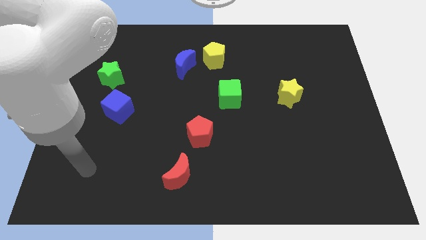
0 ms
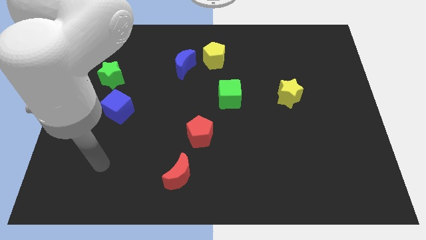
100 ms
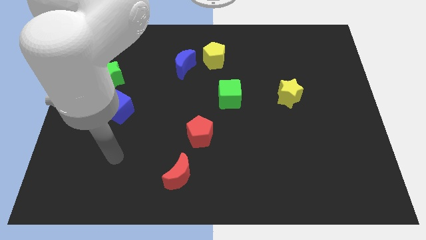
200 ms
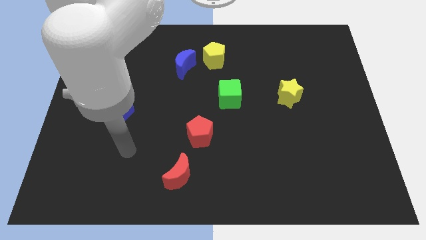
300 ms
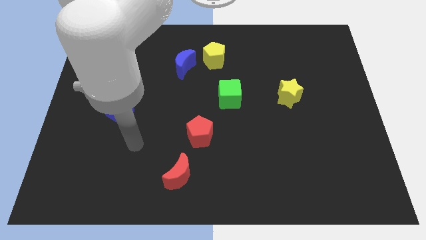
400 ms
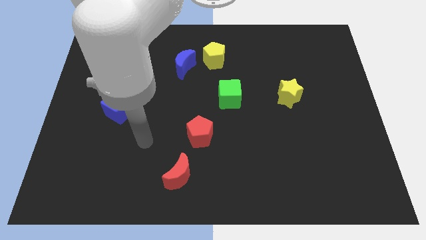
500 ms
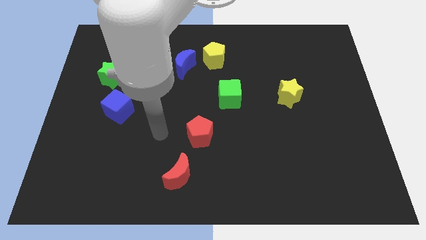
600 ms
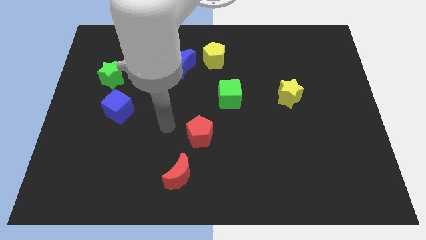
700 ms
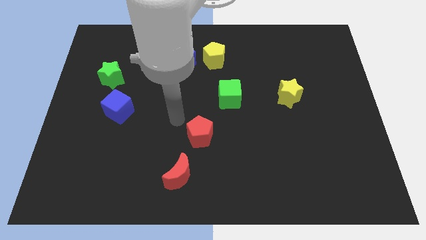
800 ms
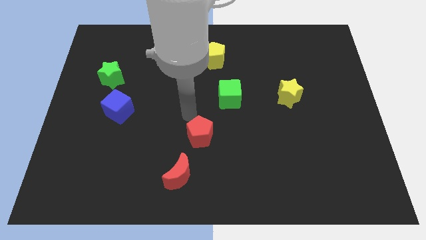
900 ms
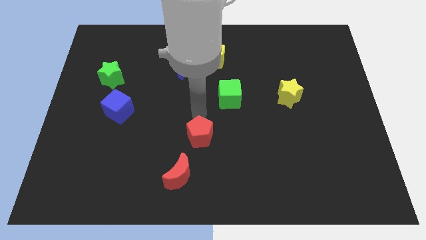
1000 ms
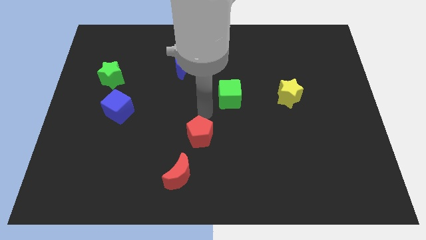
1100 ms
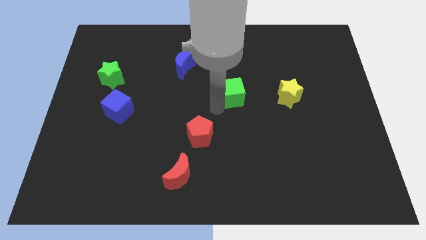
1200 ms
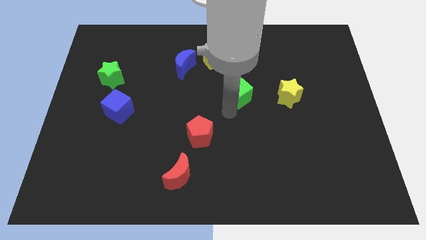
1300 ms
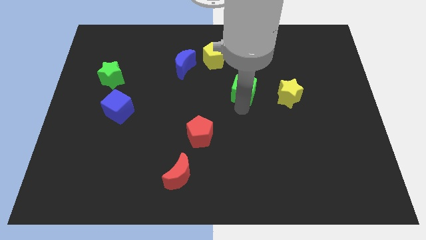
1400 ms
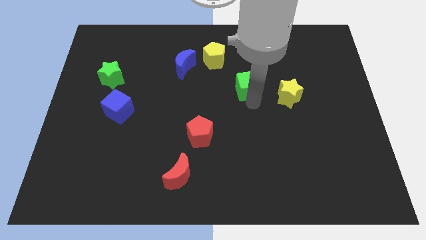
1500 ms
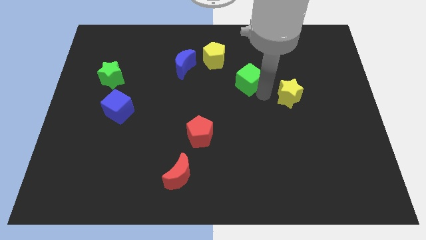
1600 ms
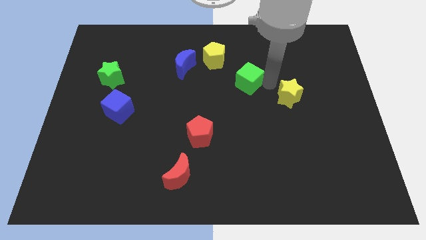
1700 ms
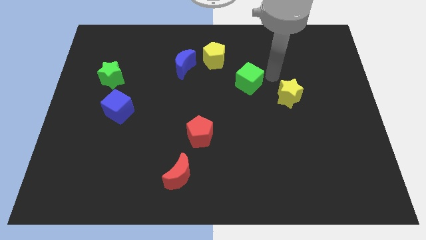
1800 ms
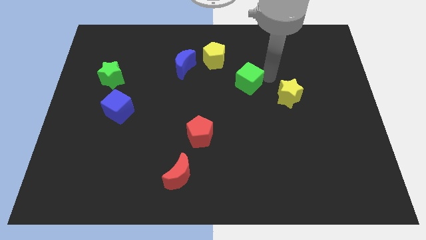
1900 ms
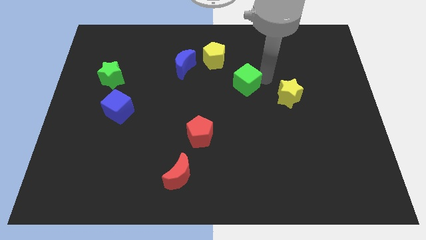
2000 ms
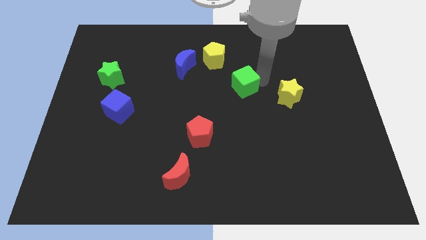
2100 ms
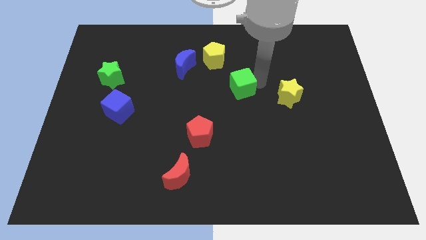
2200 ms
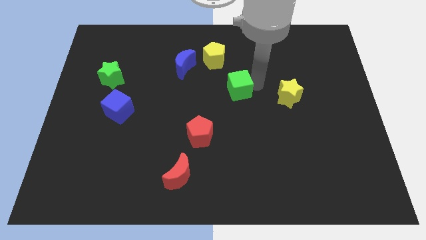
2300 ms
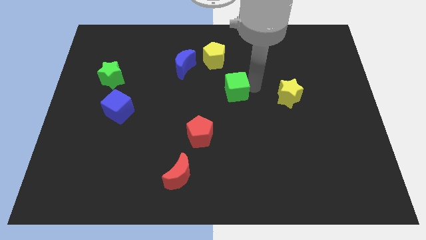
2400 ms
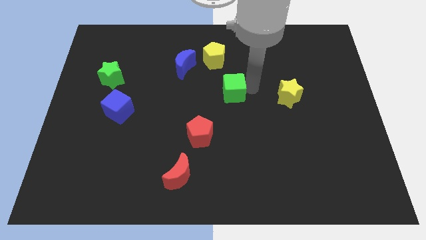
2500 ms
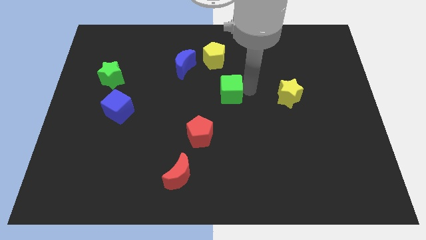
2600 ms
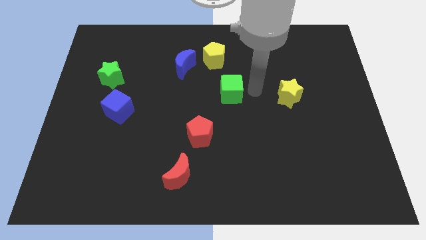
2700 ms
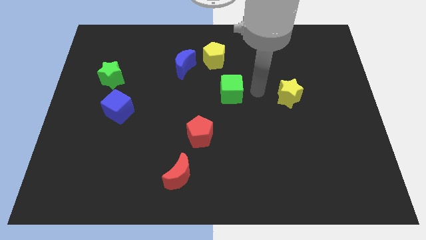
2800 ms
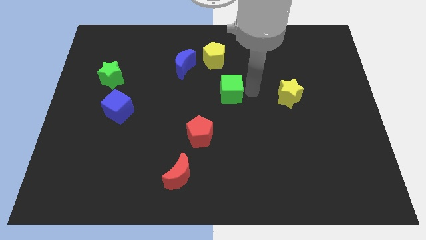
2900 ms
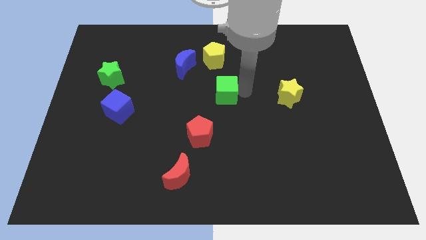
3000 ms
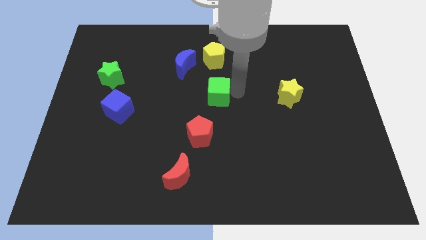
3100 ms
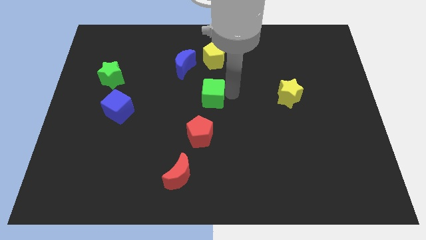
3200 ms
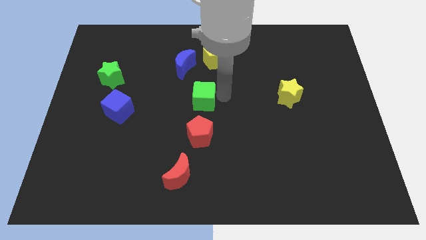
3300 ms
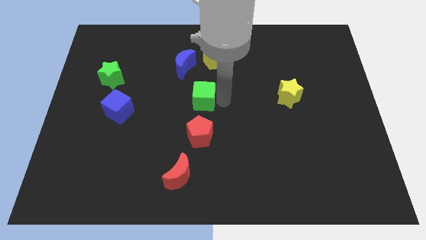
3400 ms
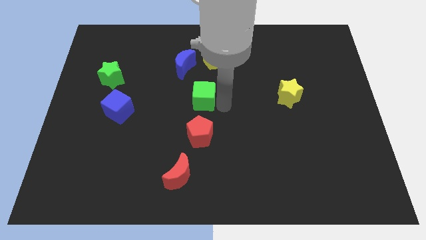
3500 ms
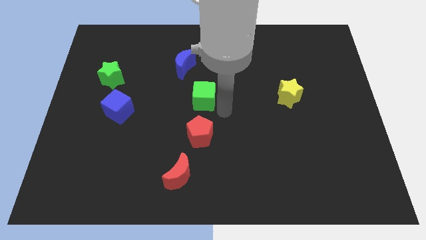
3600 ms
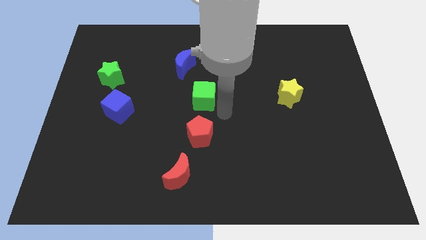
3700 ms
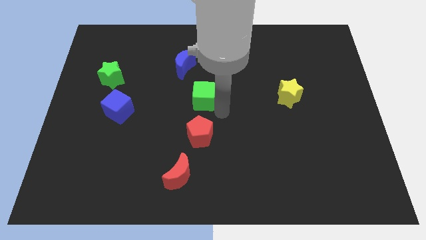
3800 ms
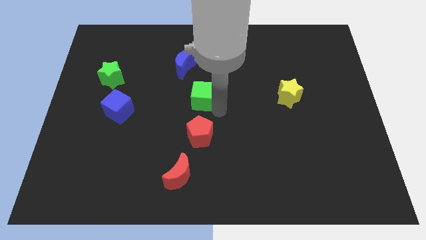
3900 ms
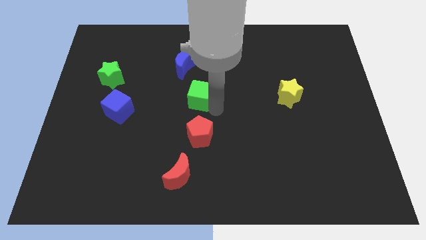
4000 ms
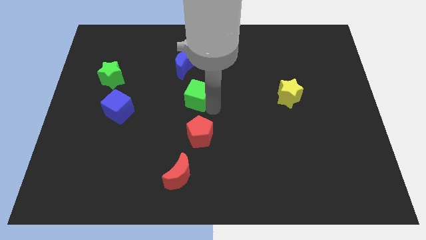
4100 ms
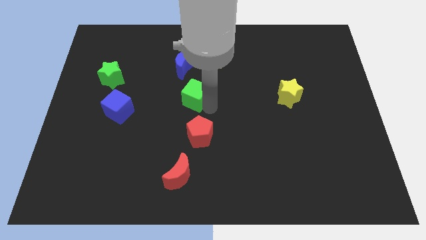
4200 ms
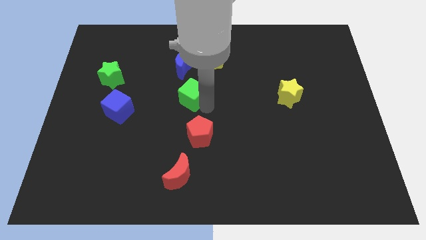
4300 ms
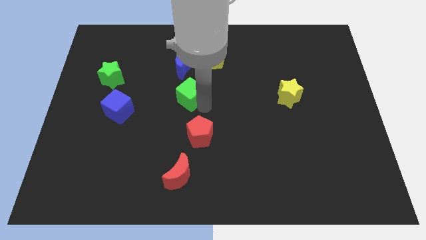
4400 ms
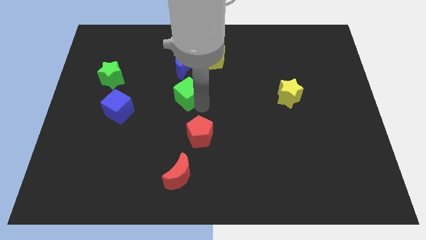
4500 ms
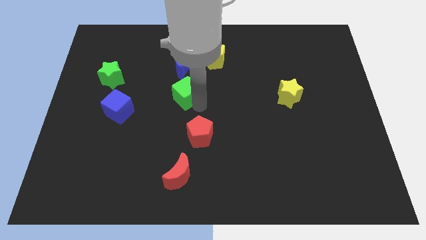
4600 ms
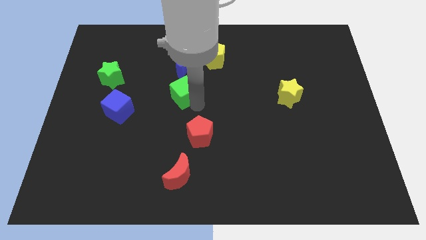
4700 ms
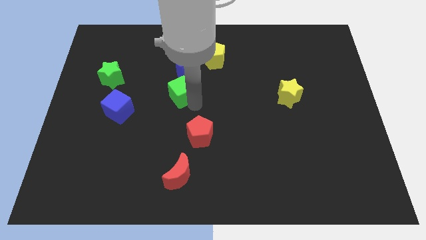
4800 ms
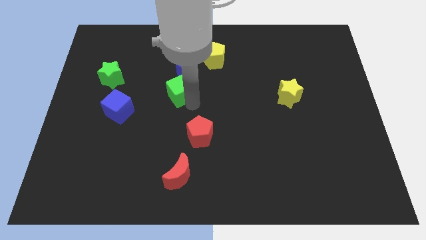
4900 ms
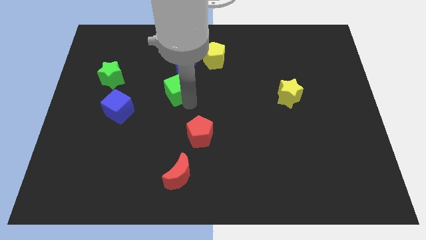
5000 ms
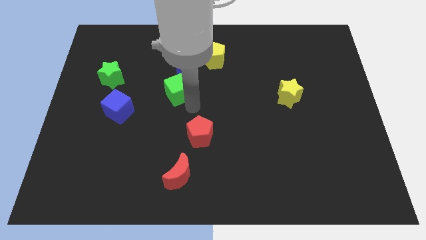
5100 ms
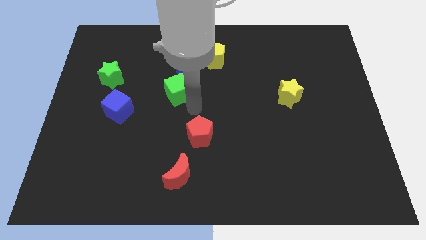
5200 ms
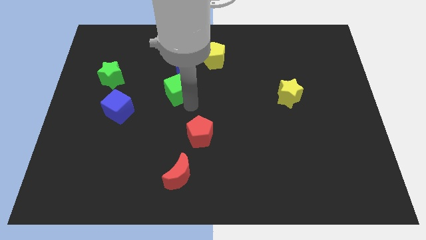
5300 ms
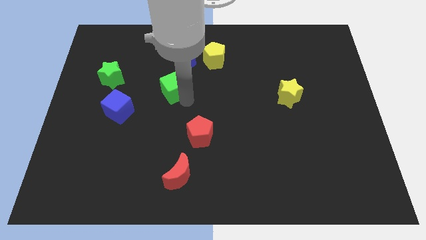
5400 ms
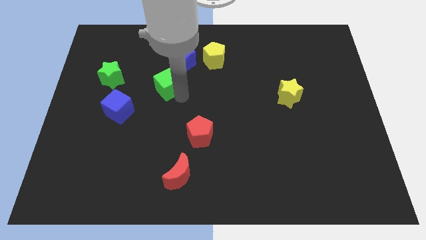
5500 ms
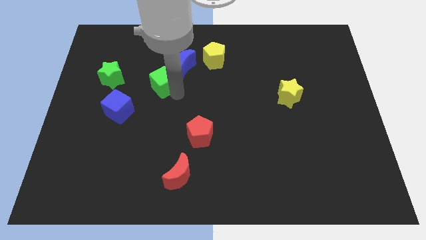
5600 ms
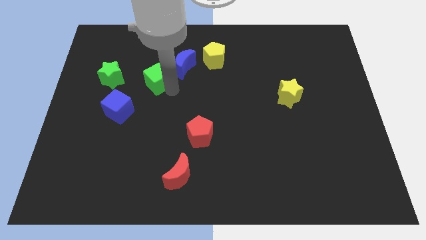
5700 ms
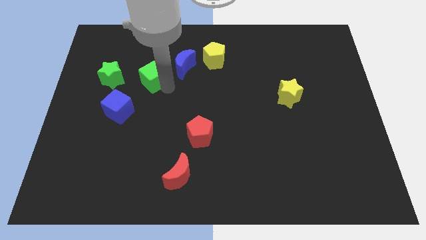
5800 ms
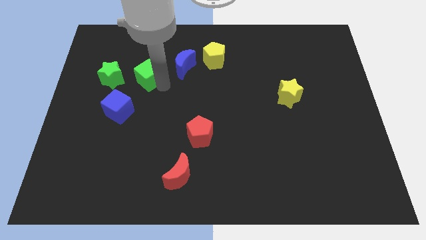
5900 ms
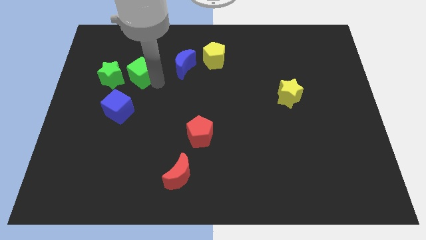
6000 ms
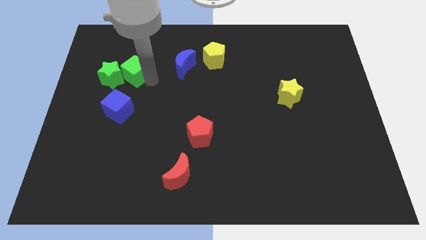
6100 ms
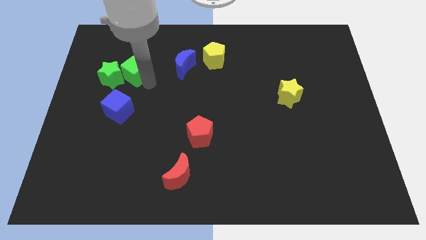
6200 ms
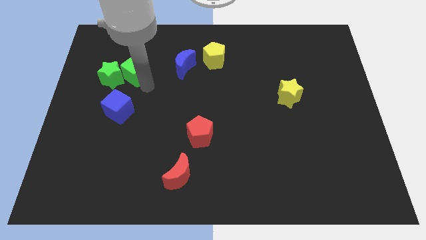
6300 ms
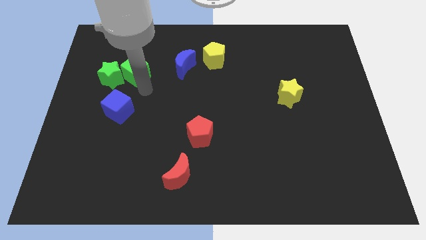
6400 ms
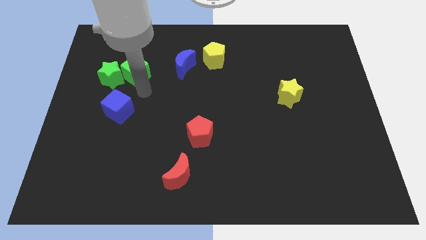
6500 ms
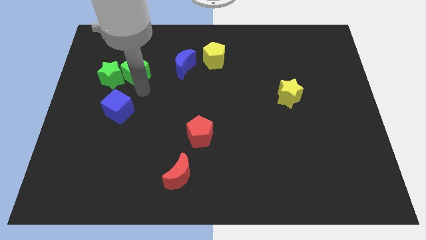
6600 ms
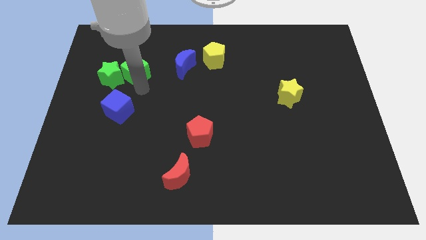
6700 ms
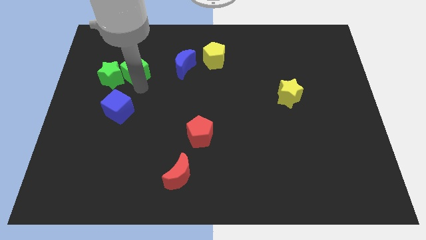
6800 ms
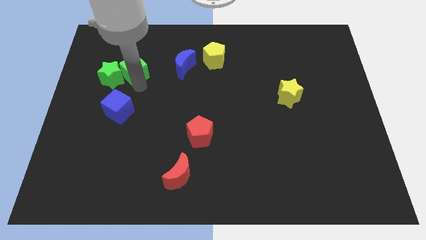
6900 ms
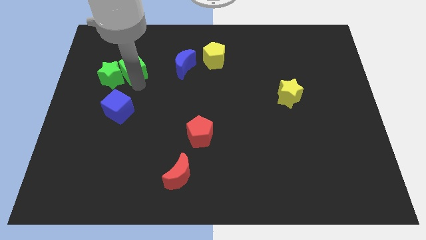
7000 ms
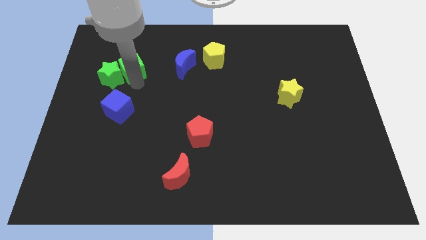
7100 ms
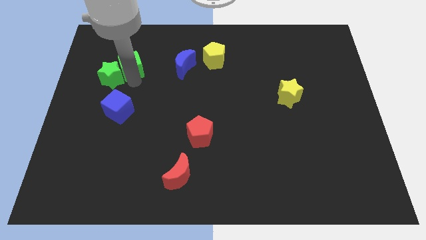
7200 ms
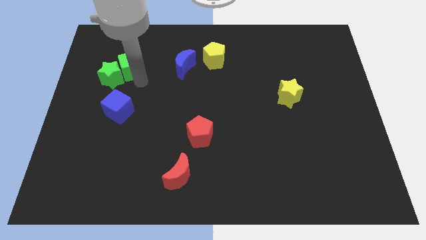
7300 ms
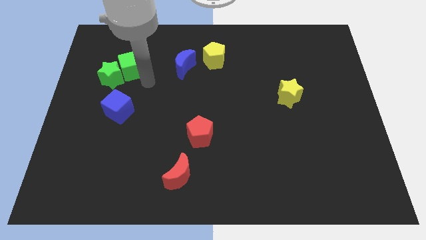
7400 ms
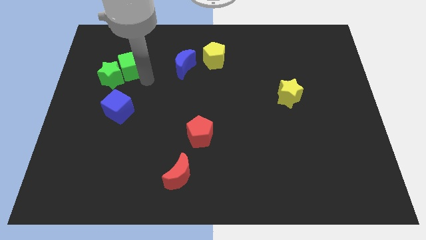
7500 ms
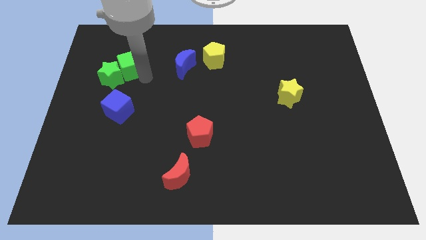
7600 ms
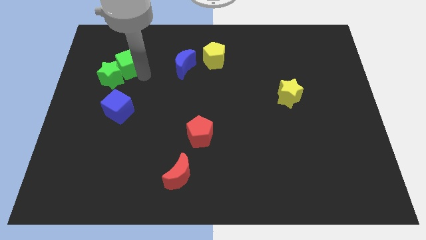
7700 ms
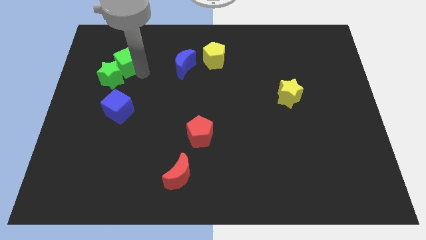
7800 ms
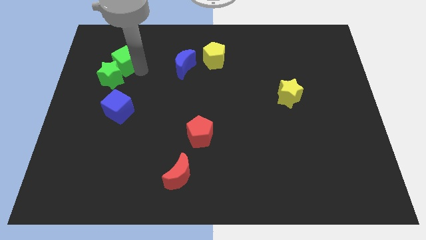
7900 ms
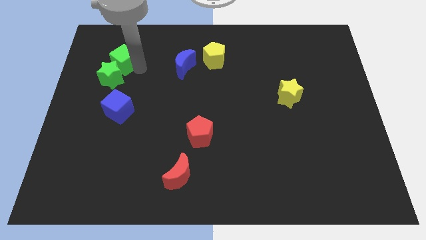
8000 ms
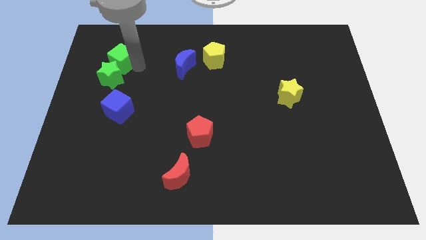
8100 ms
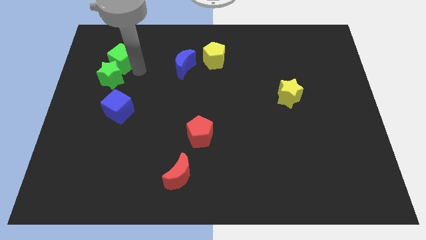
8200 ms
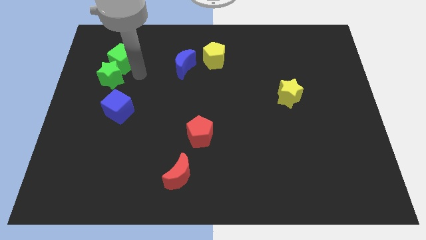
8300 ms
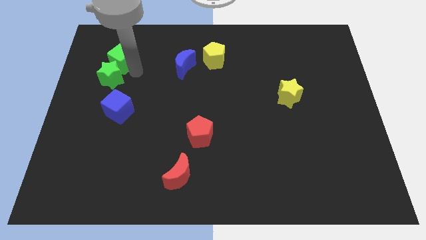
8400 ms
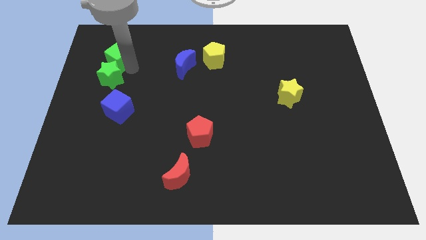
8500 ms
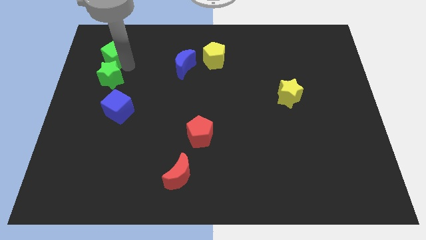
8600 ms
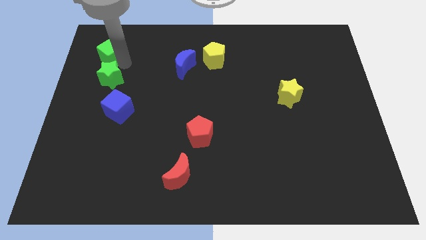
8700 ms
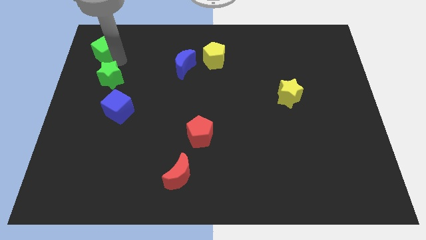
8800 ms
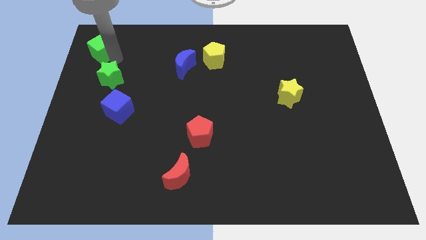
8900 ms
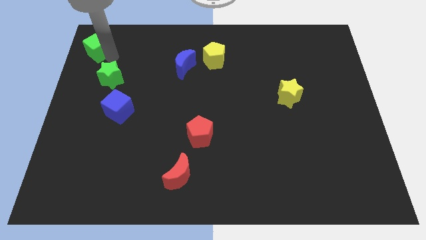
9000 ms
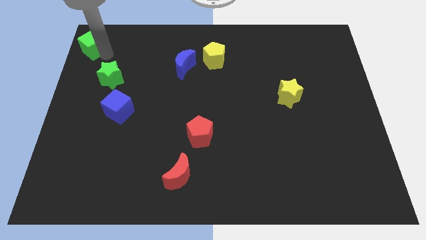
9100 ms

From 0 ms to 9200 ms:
put the green cube to the top left
